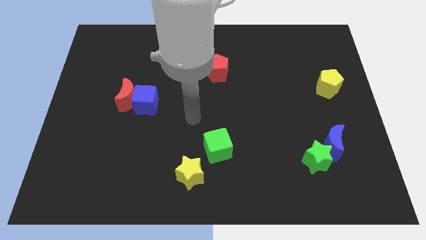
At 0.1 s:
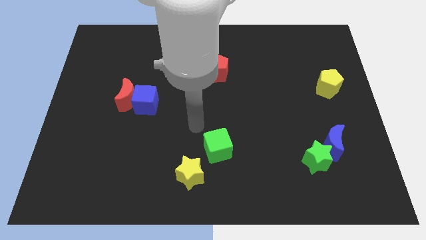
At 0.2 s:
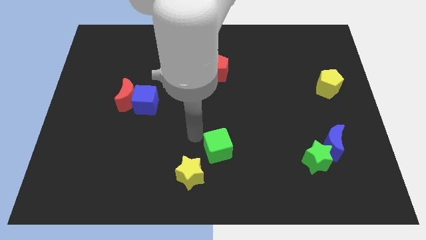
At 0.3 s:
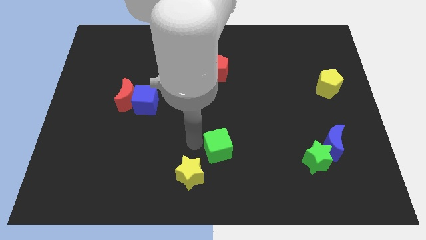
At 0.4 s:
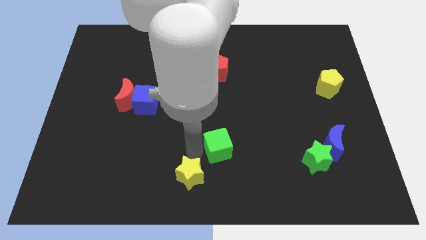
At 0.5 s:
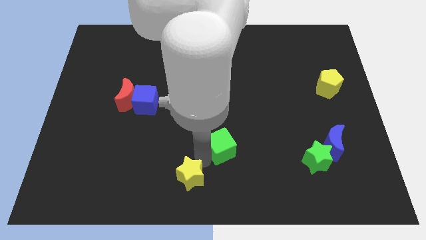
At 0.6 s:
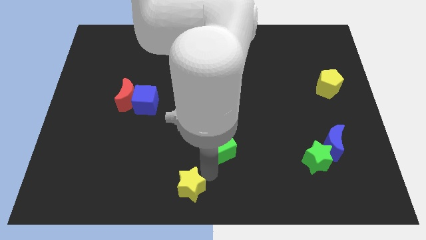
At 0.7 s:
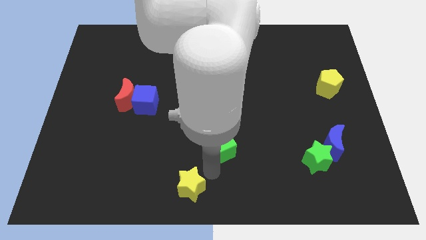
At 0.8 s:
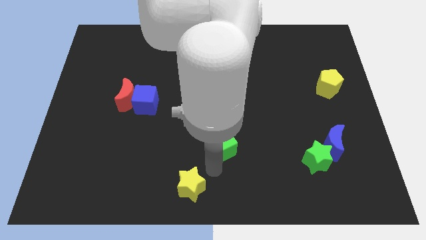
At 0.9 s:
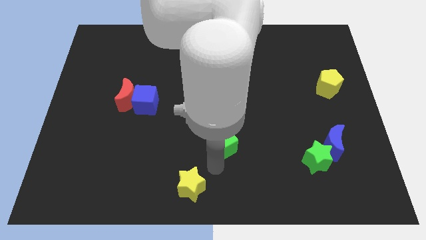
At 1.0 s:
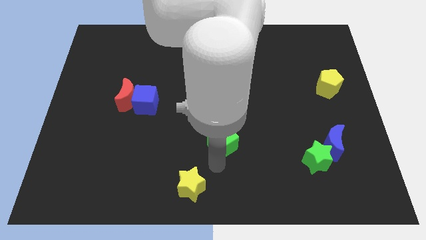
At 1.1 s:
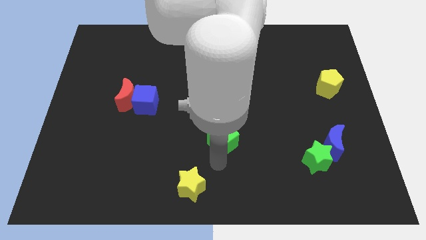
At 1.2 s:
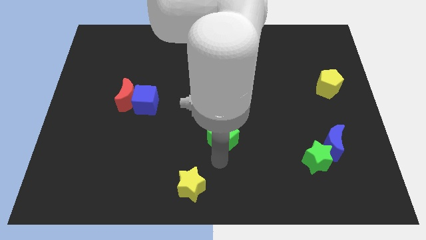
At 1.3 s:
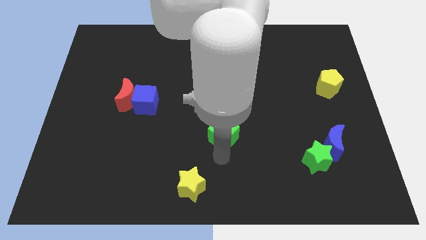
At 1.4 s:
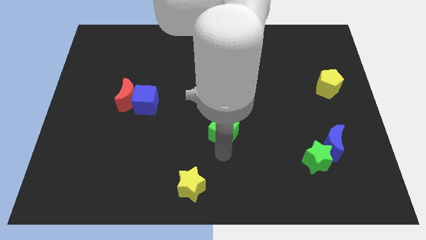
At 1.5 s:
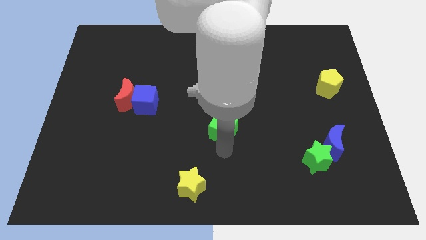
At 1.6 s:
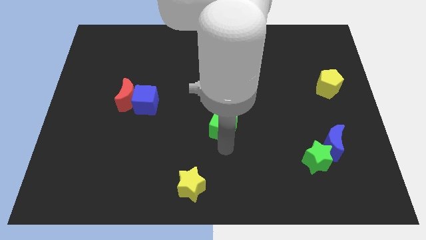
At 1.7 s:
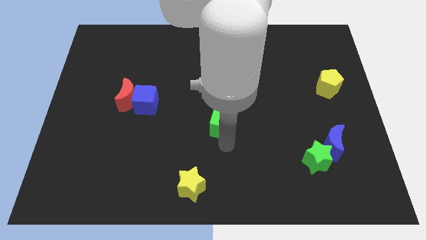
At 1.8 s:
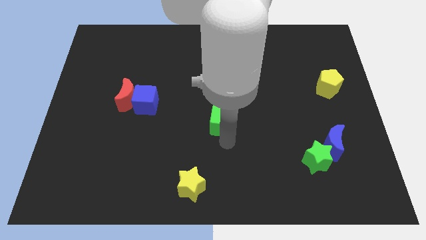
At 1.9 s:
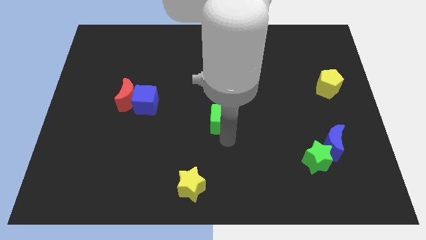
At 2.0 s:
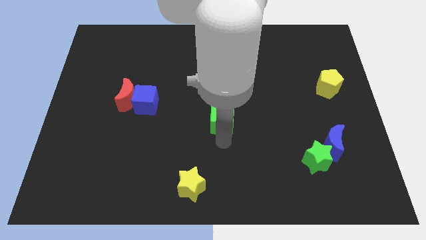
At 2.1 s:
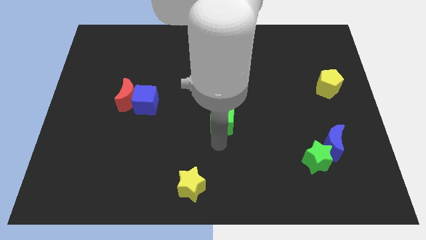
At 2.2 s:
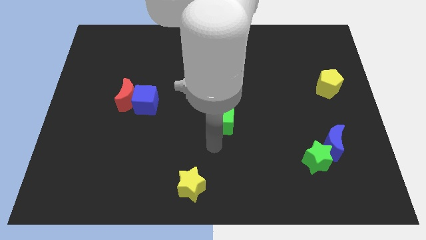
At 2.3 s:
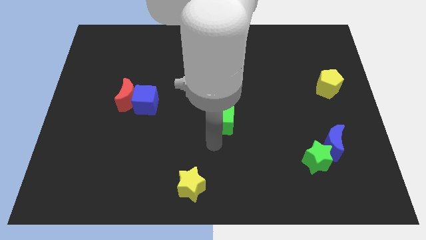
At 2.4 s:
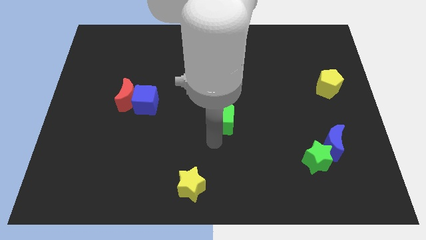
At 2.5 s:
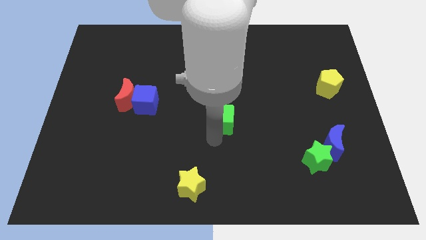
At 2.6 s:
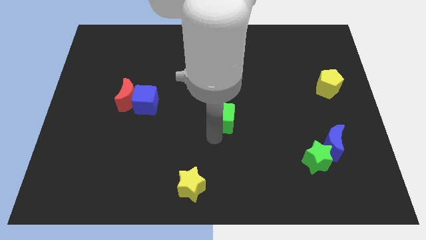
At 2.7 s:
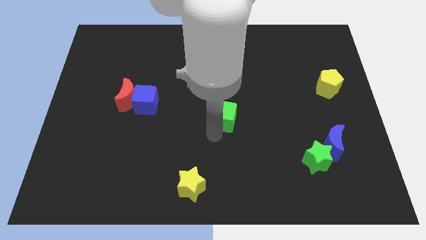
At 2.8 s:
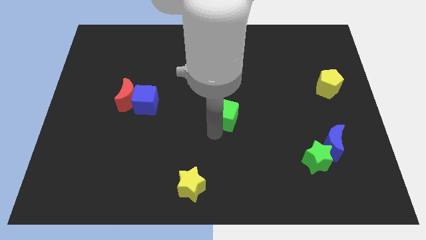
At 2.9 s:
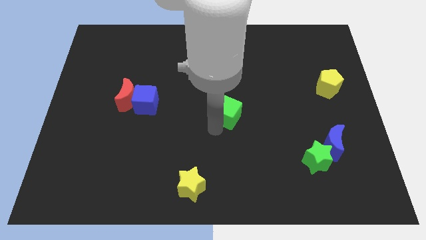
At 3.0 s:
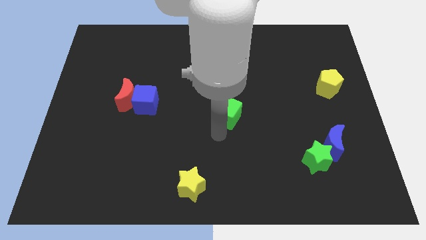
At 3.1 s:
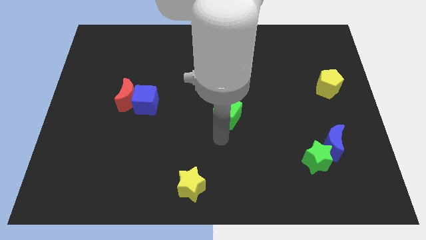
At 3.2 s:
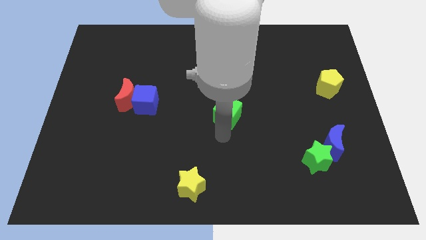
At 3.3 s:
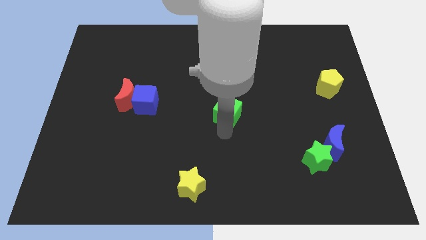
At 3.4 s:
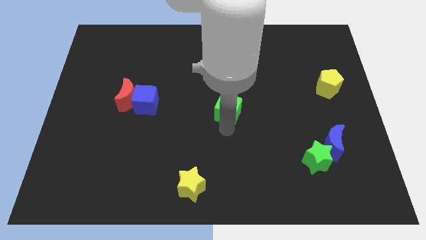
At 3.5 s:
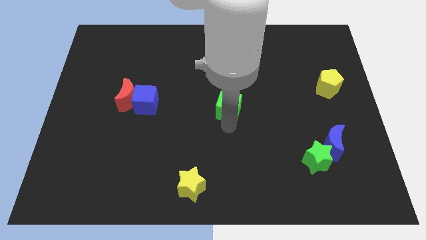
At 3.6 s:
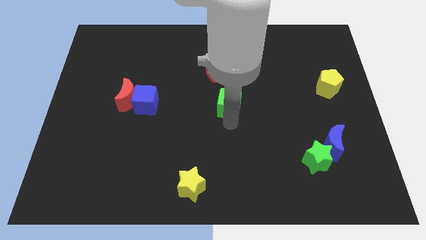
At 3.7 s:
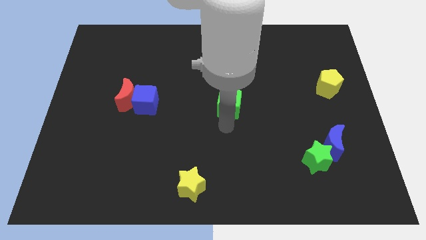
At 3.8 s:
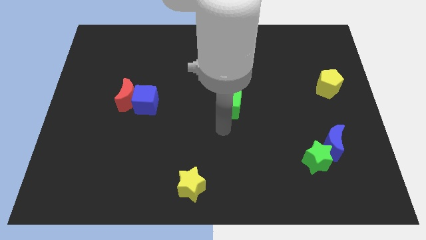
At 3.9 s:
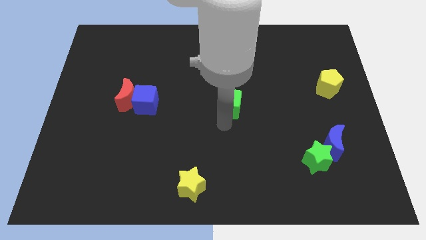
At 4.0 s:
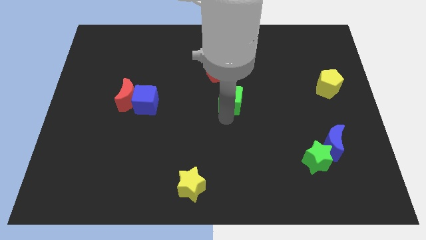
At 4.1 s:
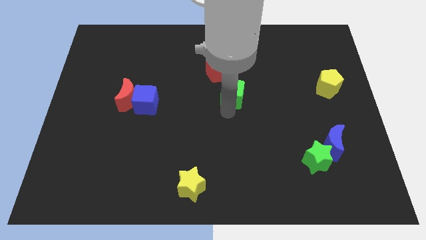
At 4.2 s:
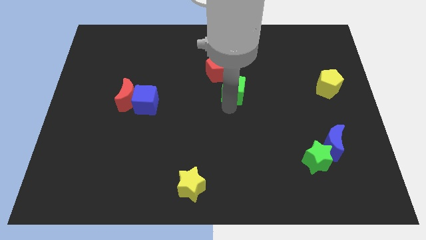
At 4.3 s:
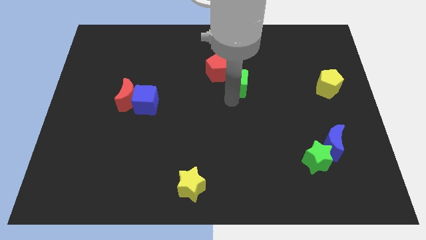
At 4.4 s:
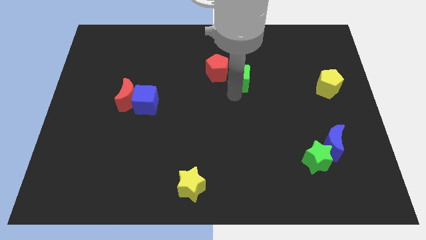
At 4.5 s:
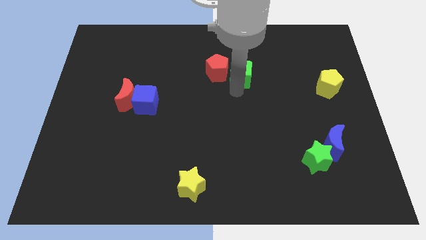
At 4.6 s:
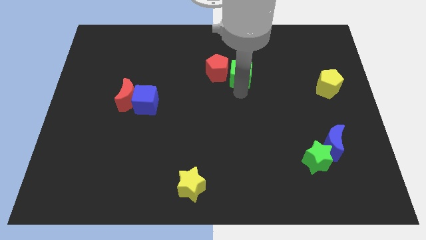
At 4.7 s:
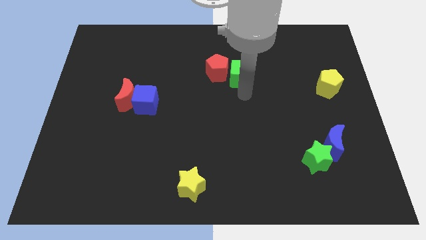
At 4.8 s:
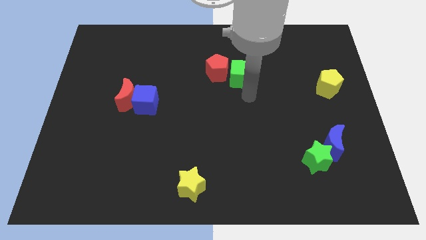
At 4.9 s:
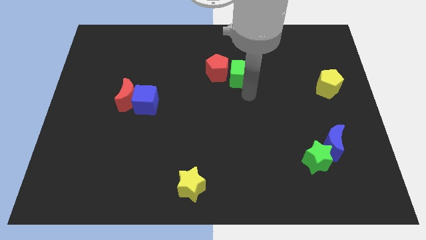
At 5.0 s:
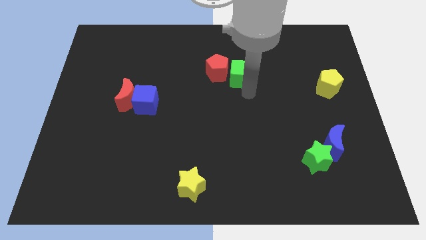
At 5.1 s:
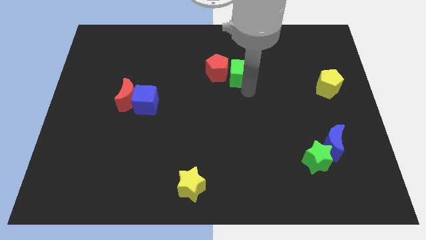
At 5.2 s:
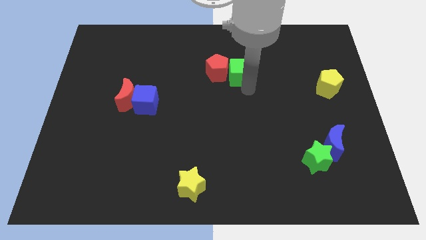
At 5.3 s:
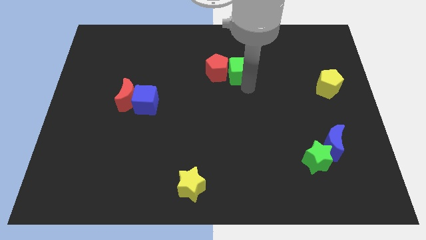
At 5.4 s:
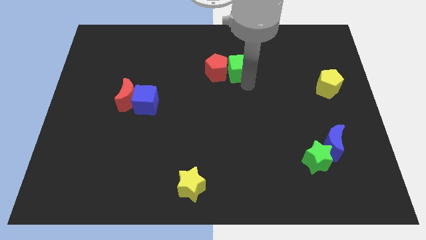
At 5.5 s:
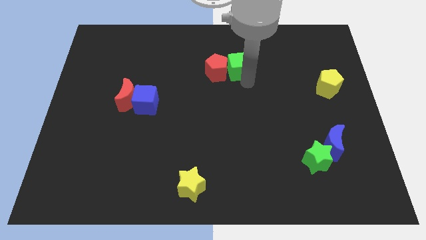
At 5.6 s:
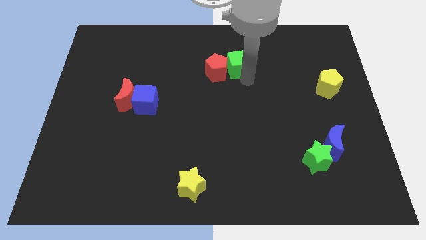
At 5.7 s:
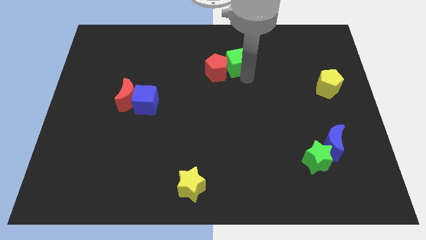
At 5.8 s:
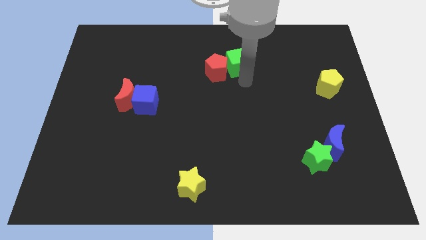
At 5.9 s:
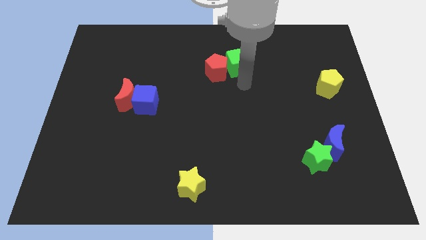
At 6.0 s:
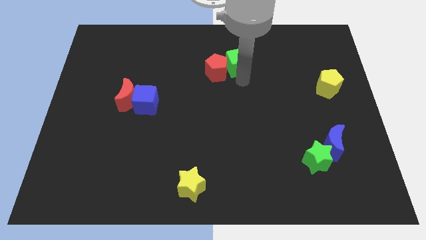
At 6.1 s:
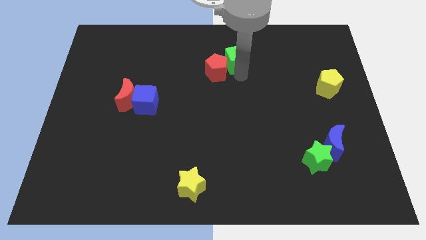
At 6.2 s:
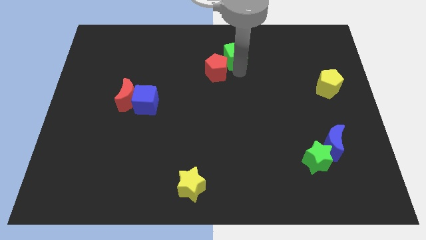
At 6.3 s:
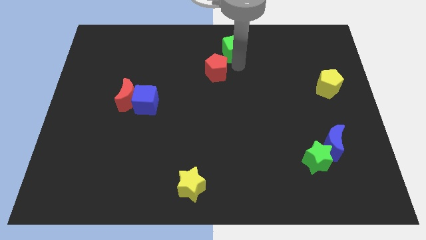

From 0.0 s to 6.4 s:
slide the green cube to the top
